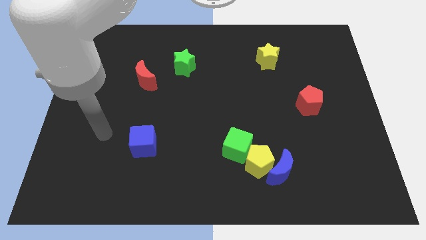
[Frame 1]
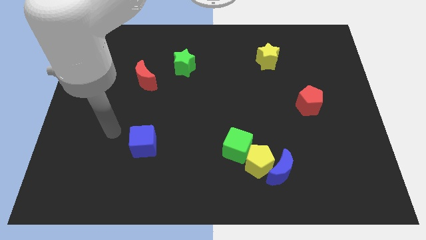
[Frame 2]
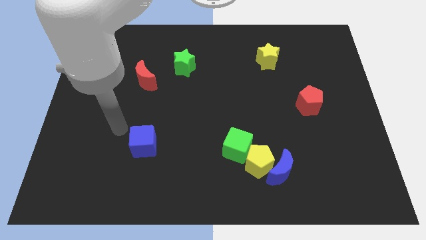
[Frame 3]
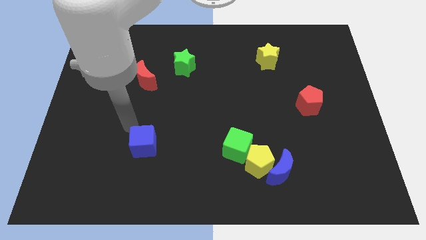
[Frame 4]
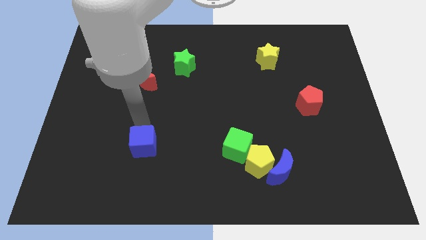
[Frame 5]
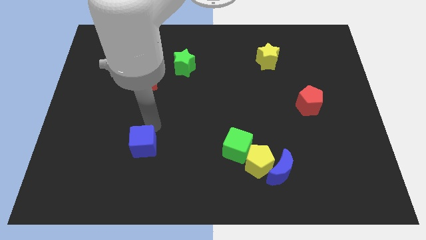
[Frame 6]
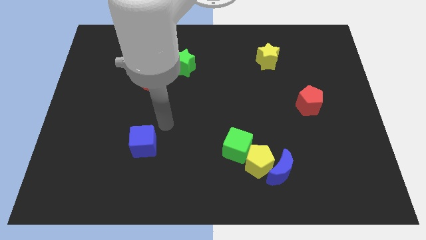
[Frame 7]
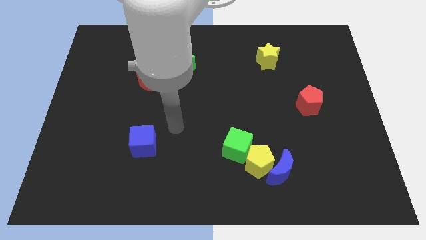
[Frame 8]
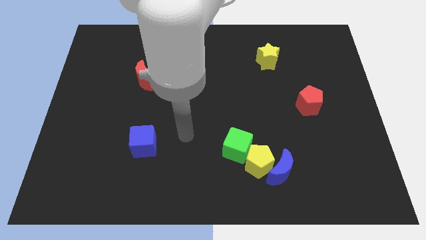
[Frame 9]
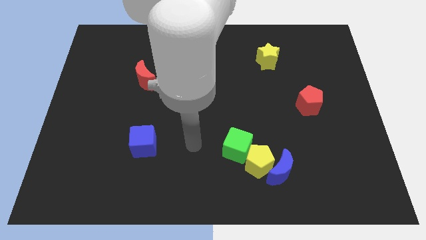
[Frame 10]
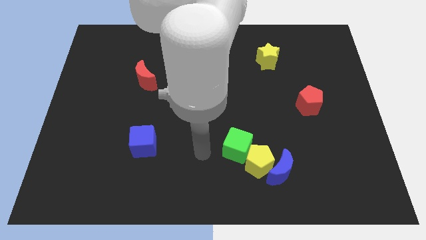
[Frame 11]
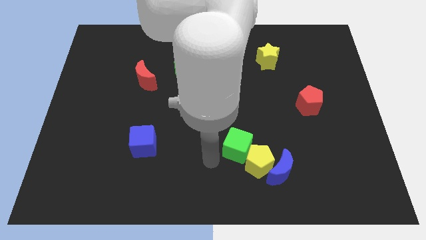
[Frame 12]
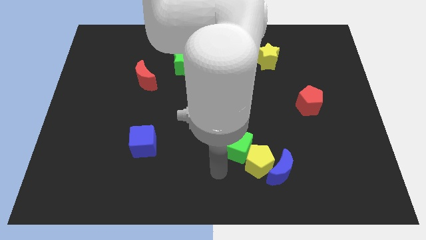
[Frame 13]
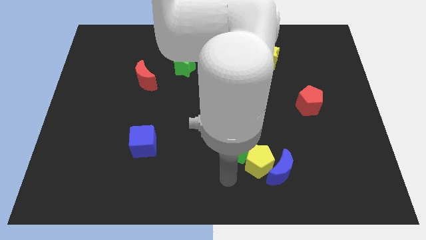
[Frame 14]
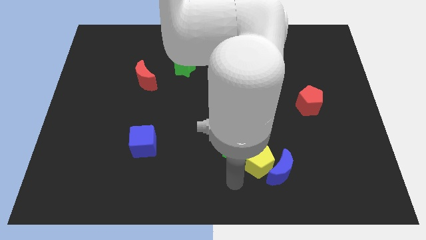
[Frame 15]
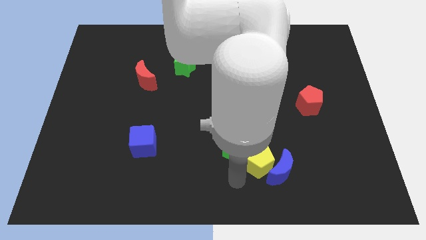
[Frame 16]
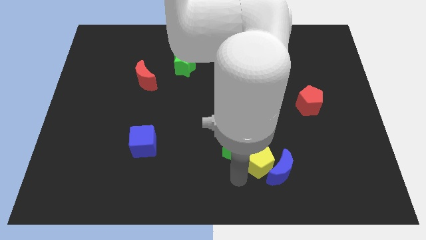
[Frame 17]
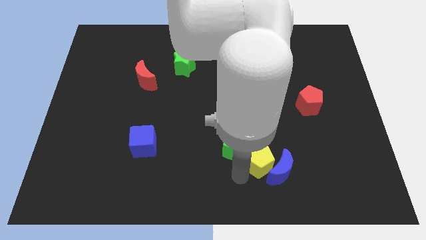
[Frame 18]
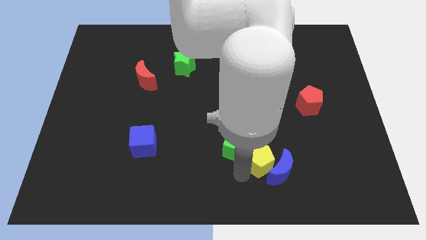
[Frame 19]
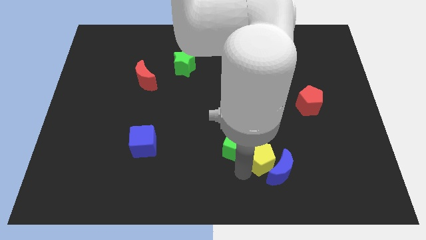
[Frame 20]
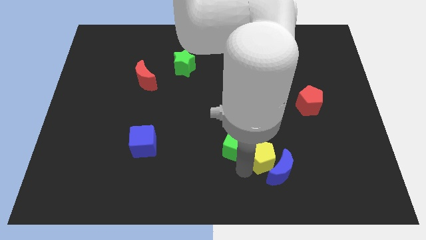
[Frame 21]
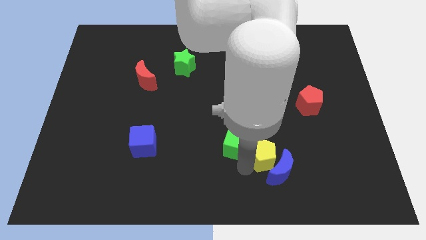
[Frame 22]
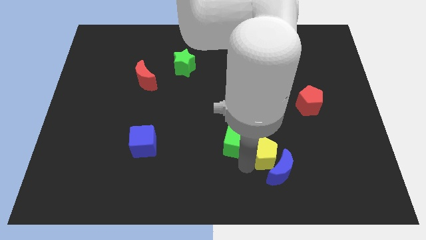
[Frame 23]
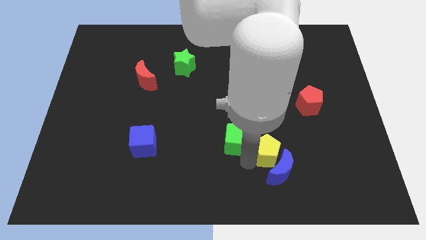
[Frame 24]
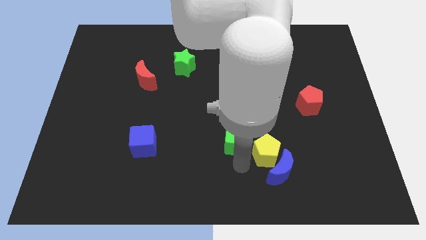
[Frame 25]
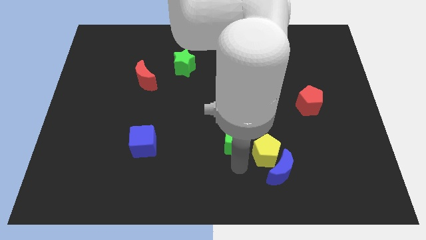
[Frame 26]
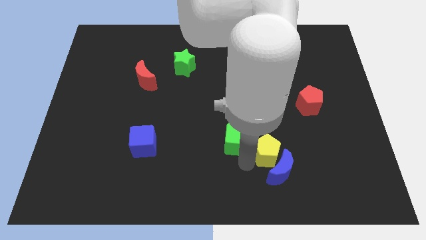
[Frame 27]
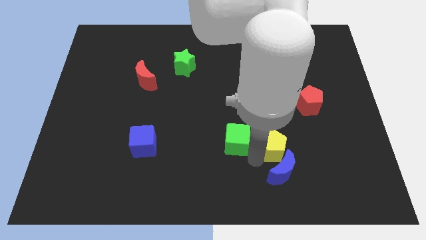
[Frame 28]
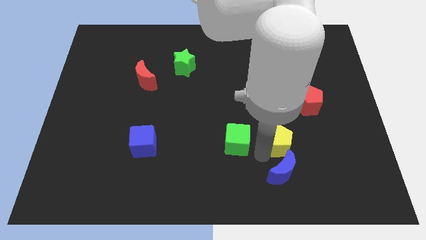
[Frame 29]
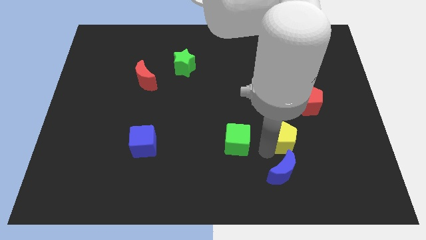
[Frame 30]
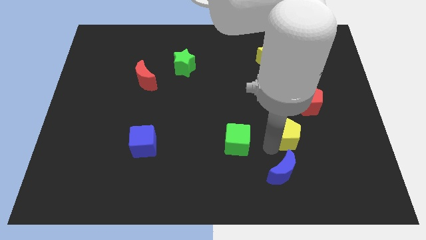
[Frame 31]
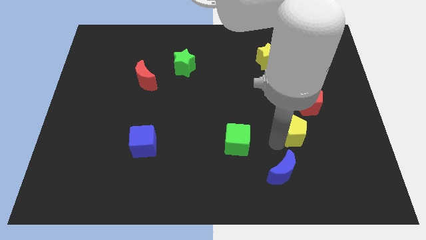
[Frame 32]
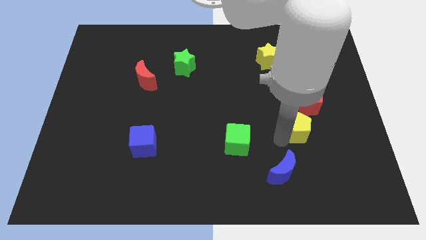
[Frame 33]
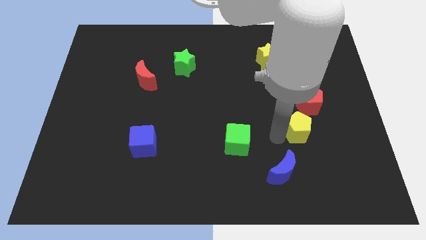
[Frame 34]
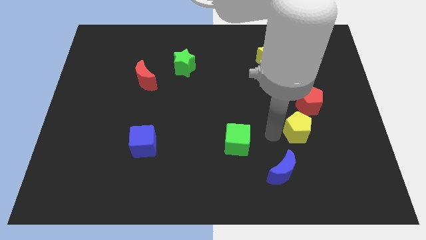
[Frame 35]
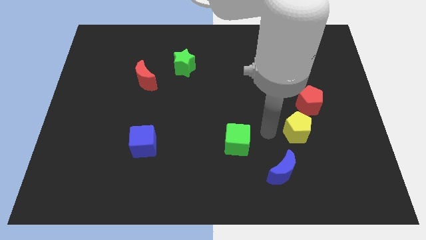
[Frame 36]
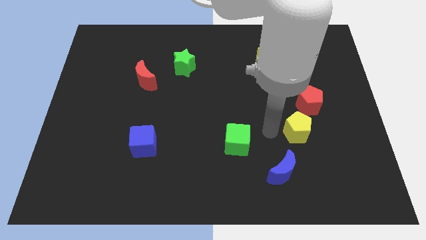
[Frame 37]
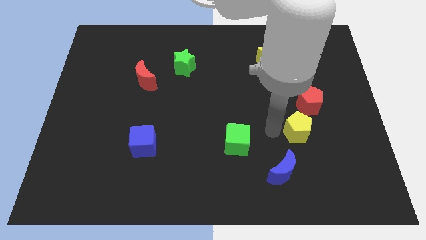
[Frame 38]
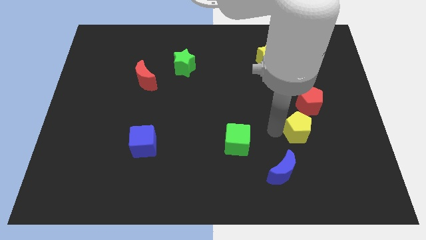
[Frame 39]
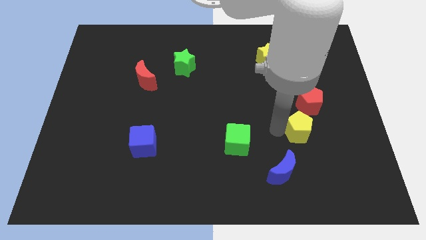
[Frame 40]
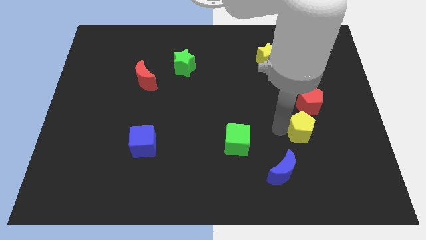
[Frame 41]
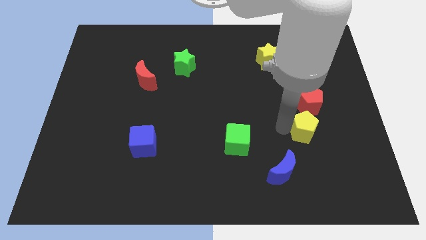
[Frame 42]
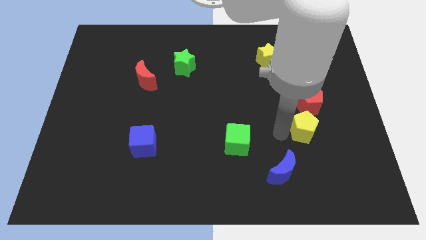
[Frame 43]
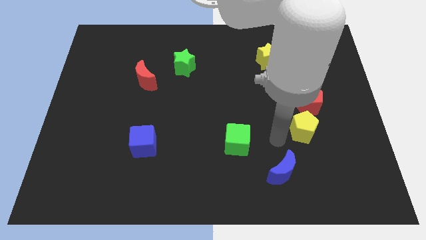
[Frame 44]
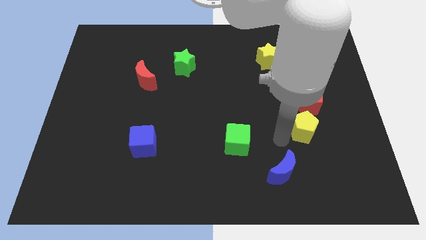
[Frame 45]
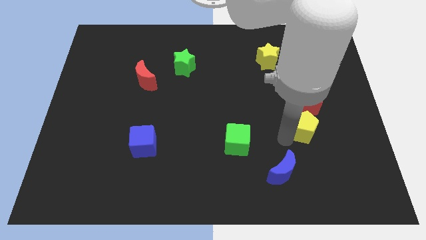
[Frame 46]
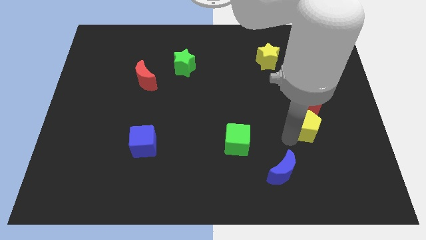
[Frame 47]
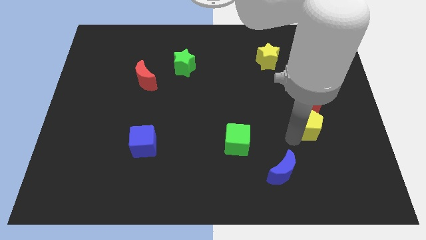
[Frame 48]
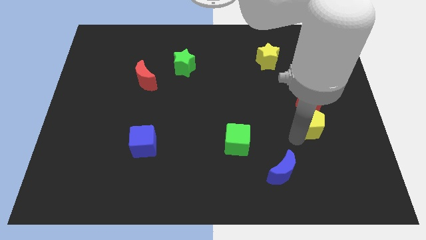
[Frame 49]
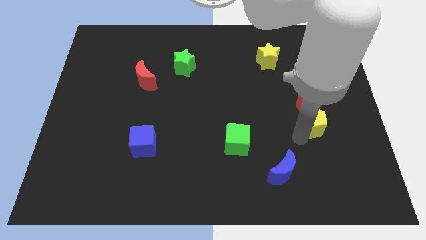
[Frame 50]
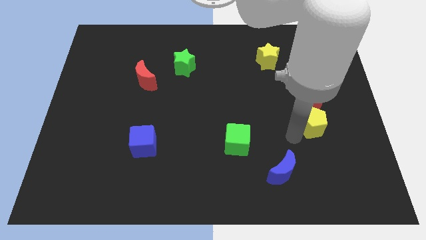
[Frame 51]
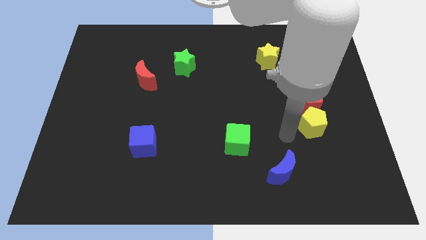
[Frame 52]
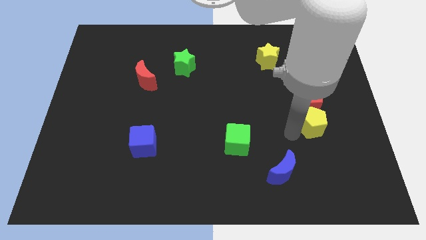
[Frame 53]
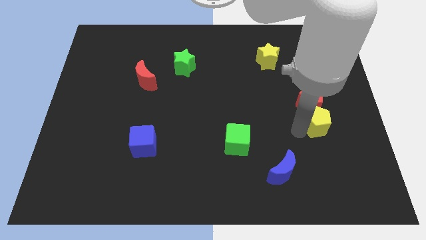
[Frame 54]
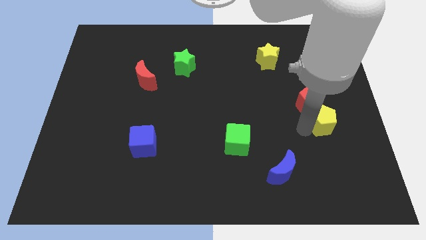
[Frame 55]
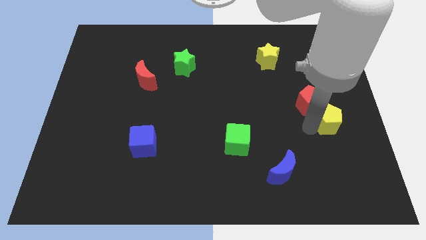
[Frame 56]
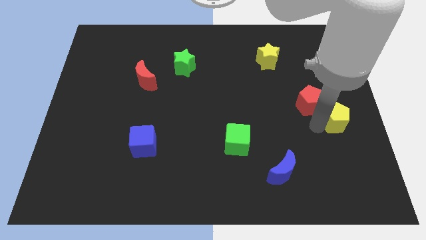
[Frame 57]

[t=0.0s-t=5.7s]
move the yellow pentagon to the right side

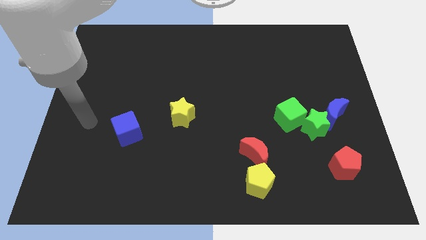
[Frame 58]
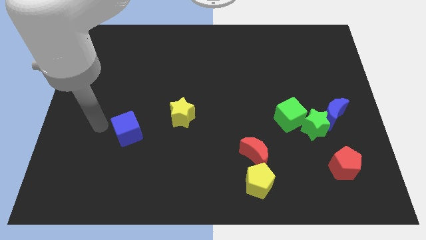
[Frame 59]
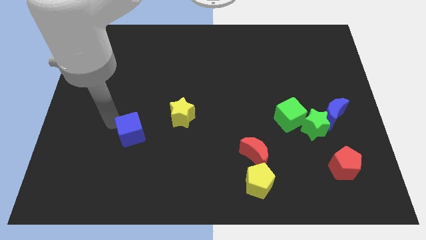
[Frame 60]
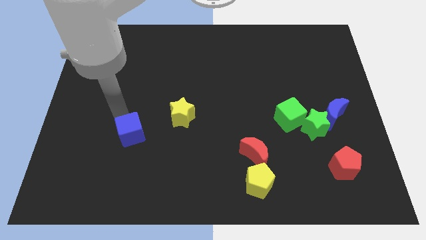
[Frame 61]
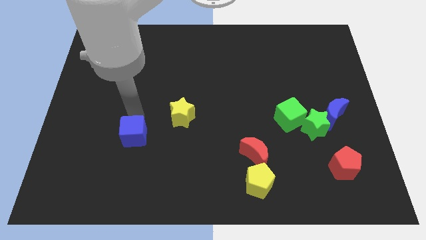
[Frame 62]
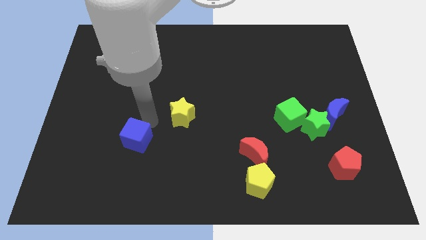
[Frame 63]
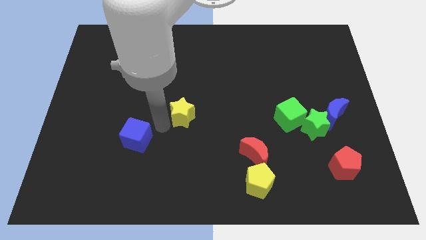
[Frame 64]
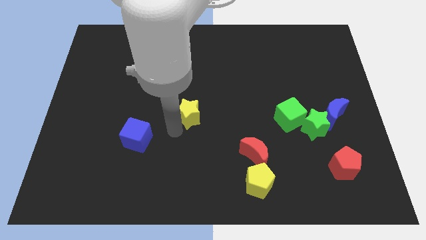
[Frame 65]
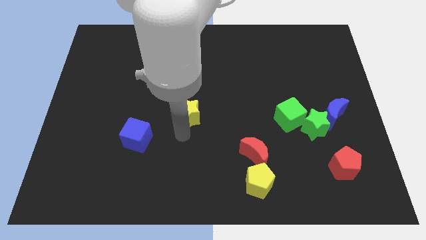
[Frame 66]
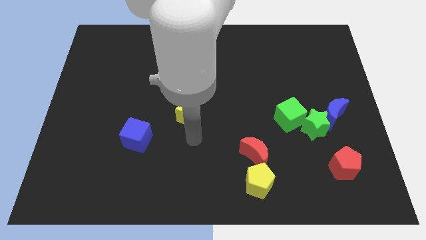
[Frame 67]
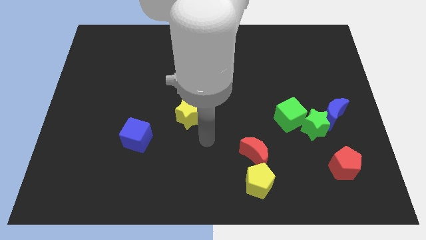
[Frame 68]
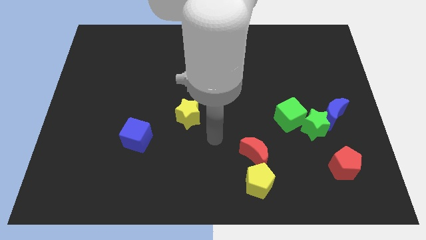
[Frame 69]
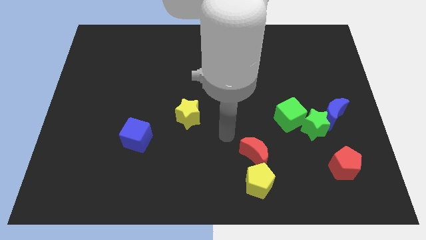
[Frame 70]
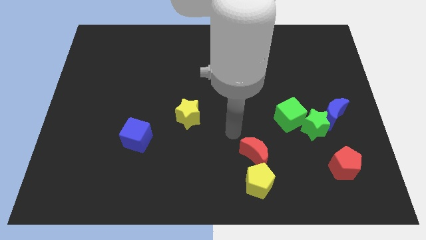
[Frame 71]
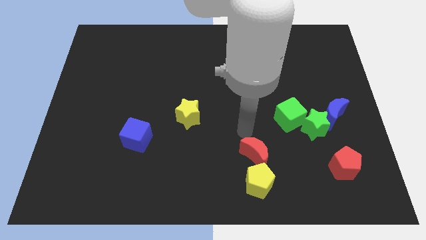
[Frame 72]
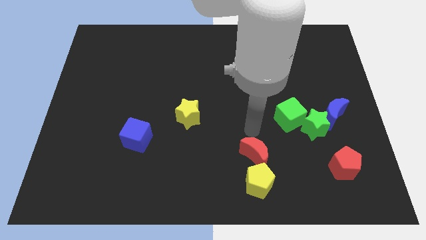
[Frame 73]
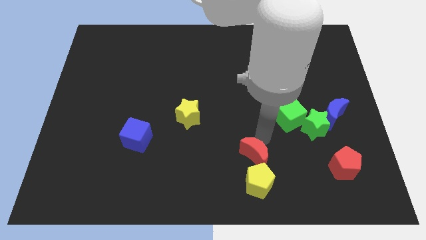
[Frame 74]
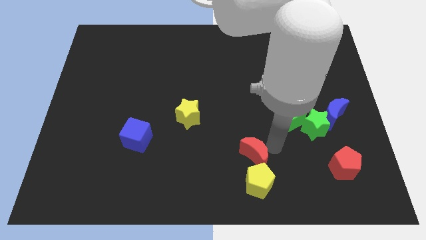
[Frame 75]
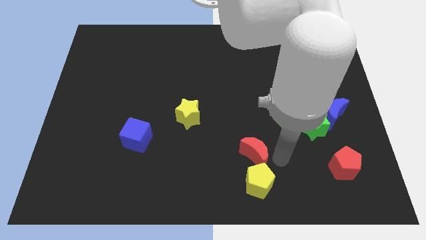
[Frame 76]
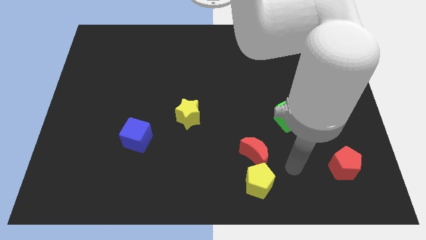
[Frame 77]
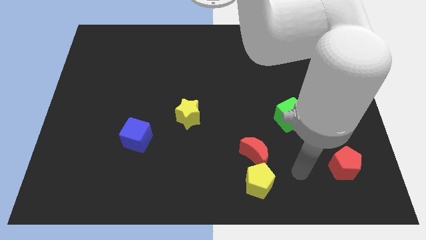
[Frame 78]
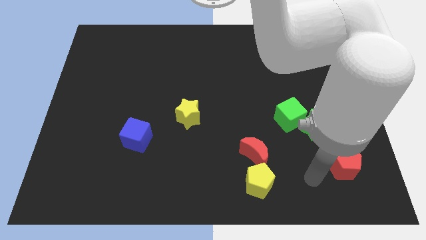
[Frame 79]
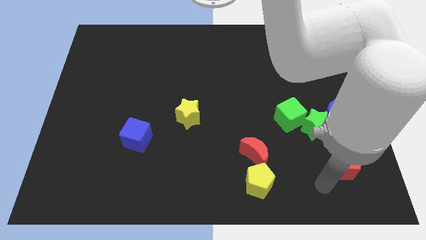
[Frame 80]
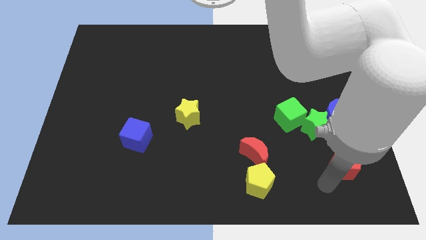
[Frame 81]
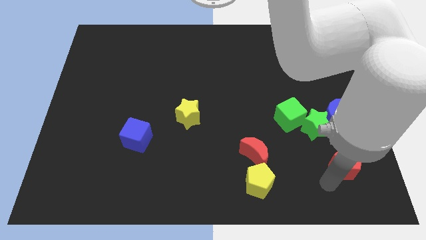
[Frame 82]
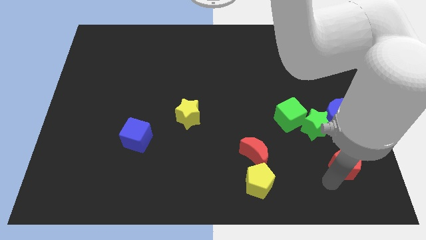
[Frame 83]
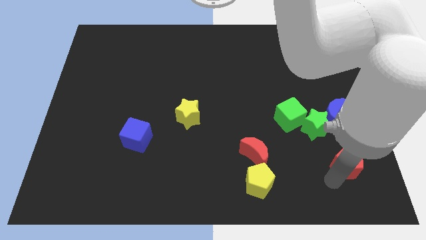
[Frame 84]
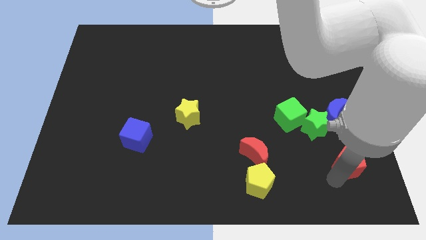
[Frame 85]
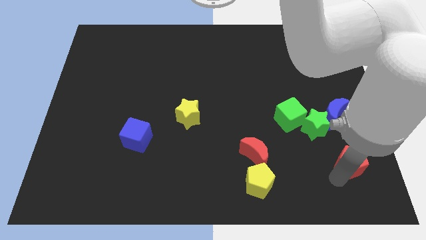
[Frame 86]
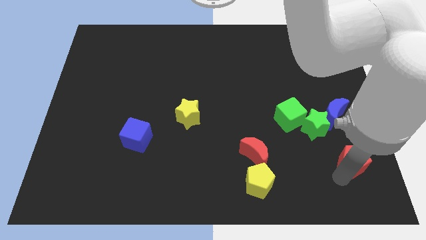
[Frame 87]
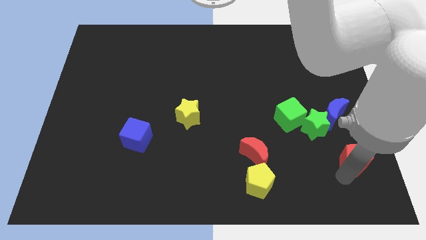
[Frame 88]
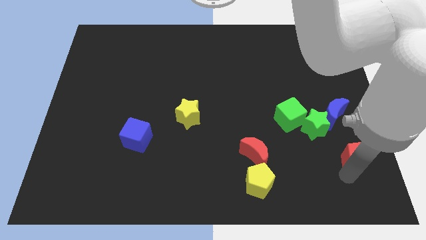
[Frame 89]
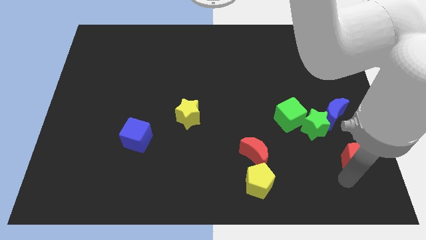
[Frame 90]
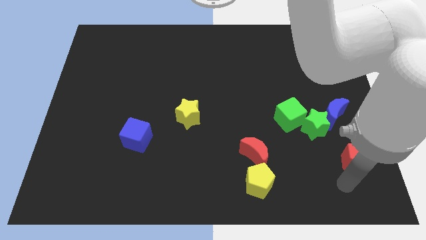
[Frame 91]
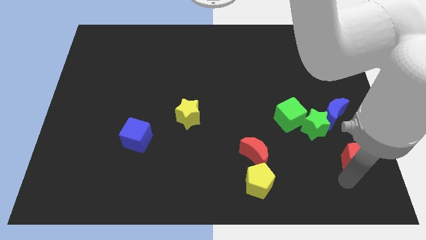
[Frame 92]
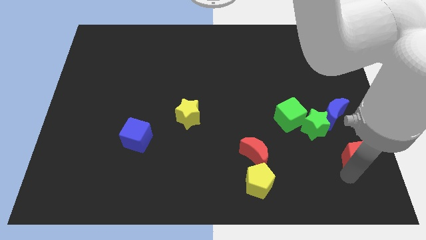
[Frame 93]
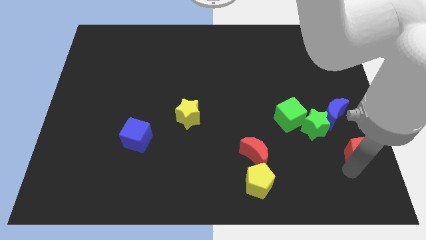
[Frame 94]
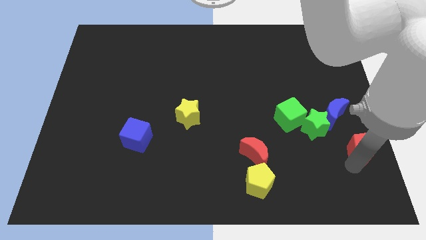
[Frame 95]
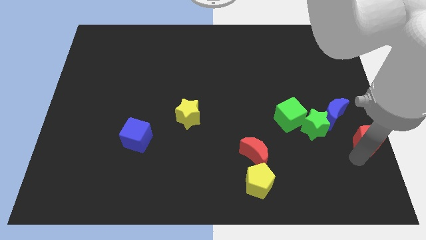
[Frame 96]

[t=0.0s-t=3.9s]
slide the red pentagon to the center right
